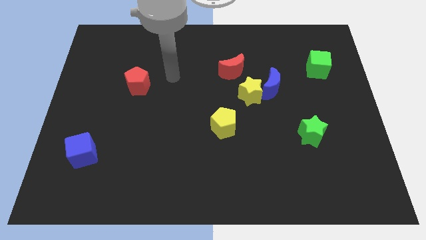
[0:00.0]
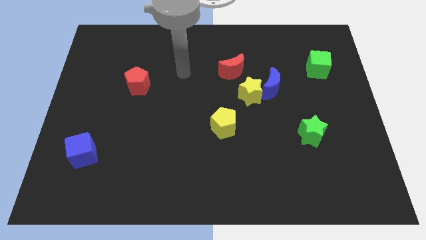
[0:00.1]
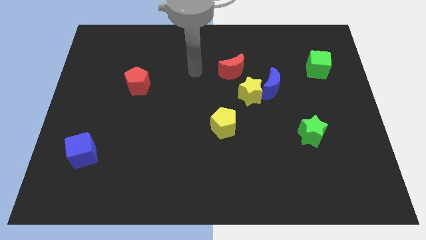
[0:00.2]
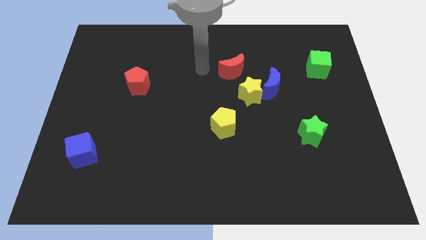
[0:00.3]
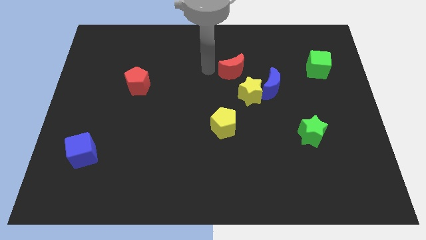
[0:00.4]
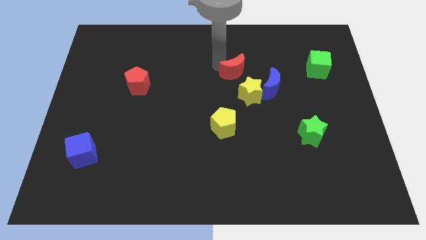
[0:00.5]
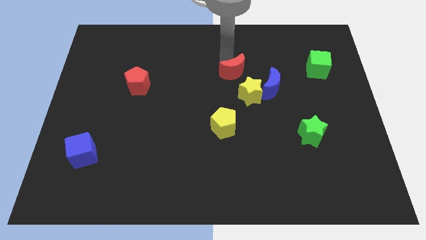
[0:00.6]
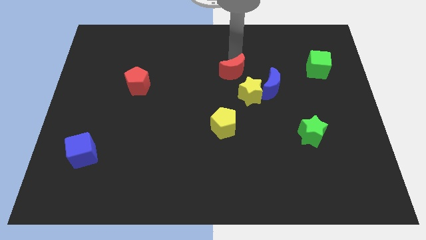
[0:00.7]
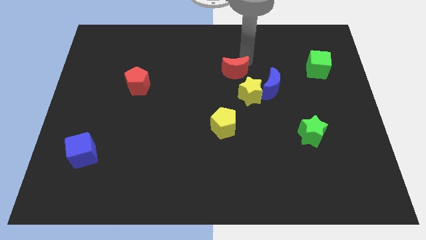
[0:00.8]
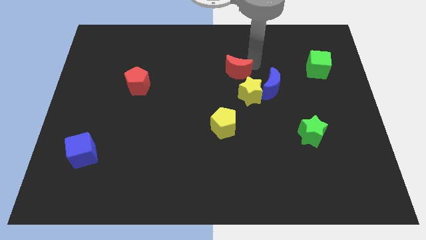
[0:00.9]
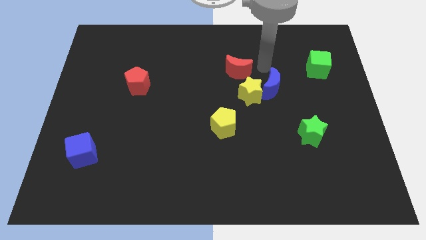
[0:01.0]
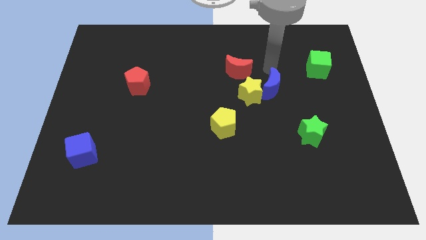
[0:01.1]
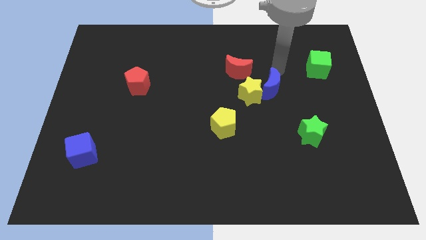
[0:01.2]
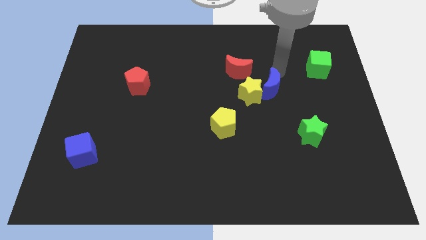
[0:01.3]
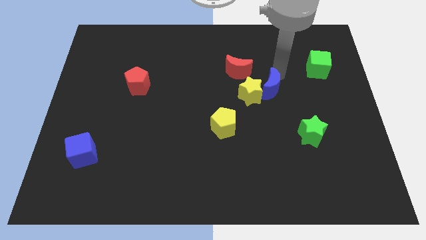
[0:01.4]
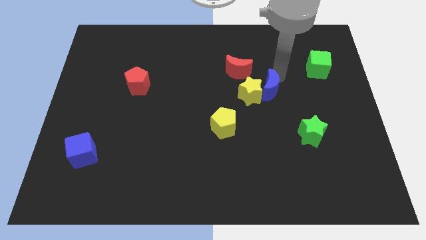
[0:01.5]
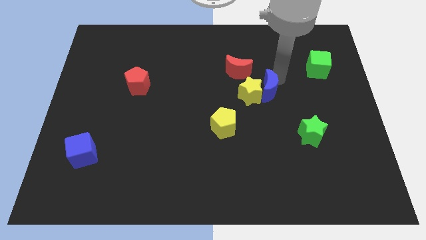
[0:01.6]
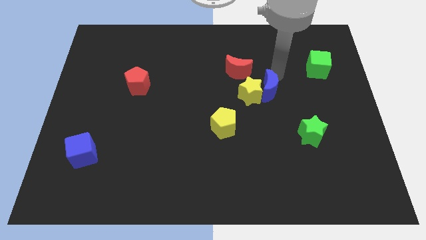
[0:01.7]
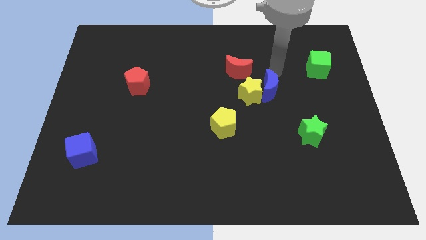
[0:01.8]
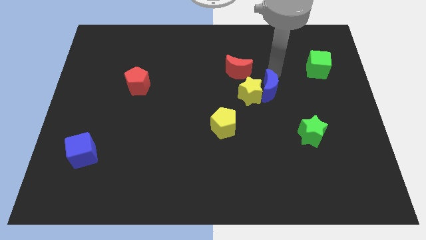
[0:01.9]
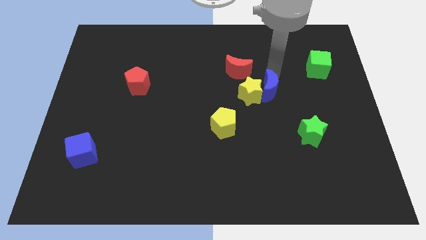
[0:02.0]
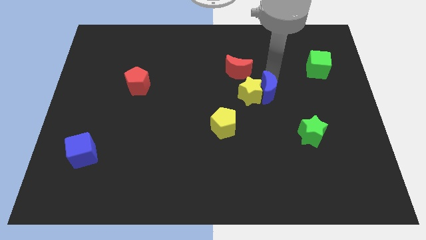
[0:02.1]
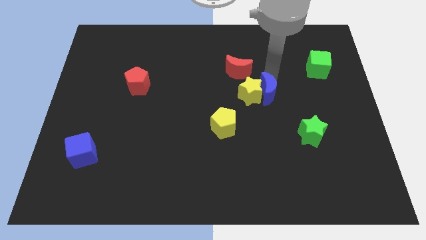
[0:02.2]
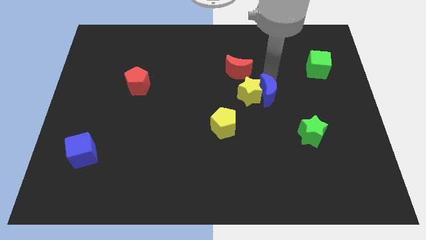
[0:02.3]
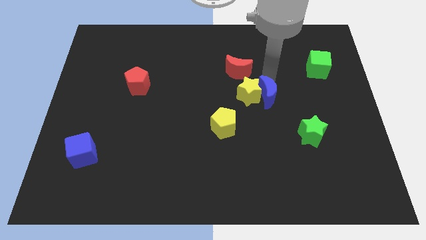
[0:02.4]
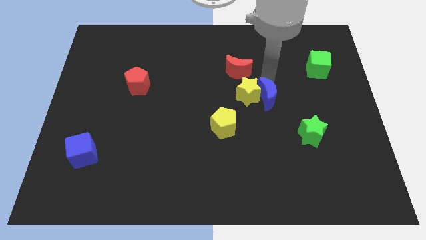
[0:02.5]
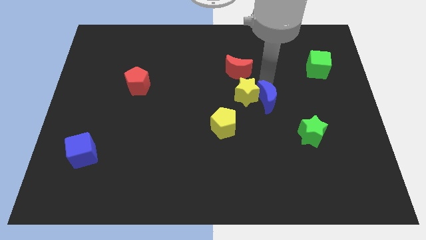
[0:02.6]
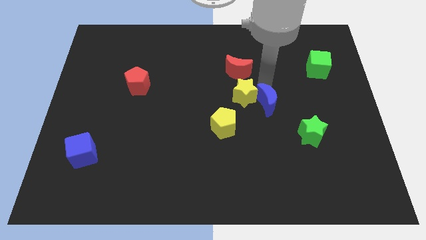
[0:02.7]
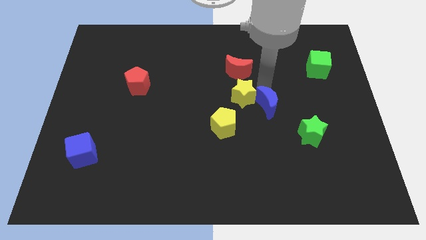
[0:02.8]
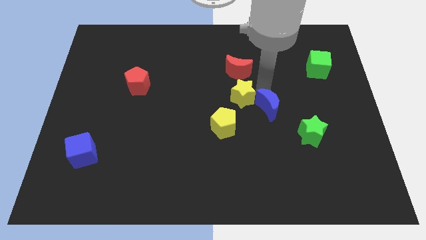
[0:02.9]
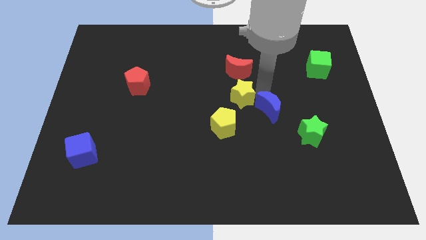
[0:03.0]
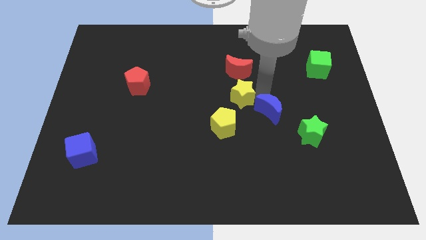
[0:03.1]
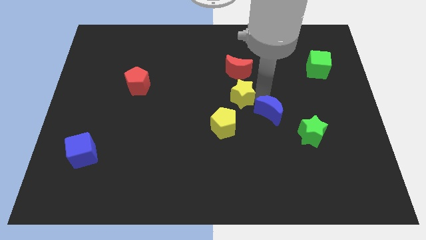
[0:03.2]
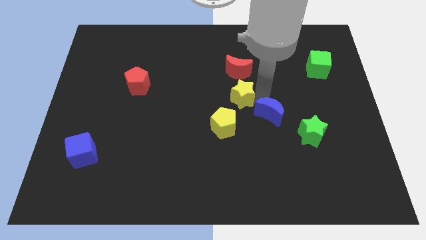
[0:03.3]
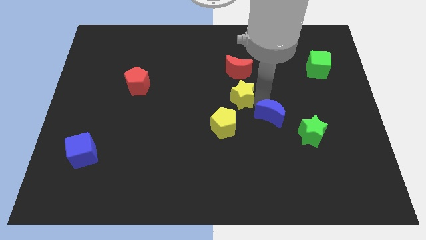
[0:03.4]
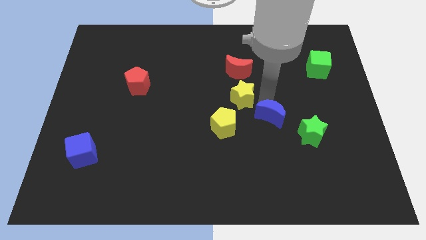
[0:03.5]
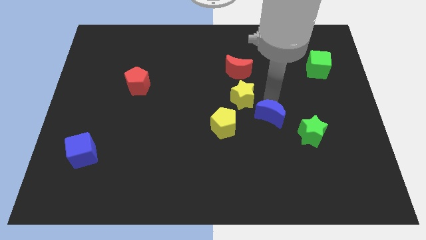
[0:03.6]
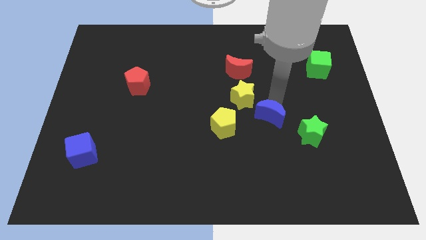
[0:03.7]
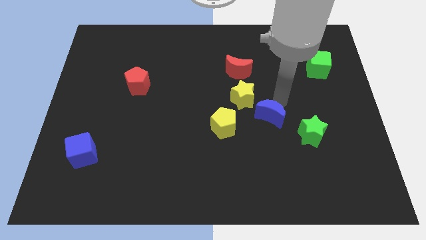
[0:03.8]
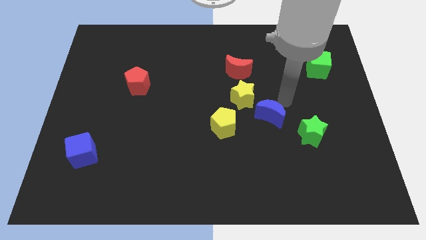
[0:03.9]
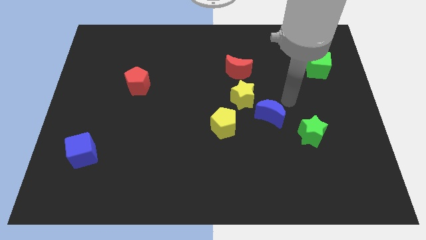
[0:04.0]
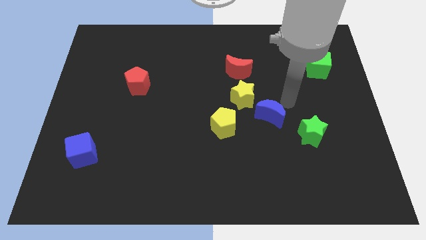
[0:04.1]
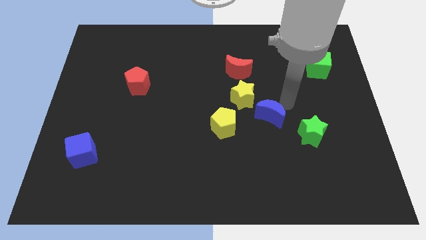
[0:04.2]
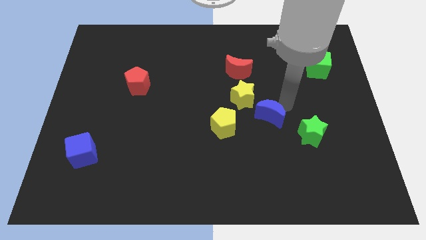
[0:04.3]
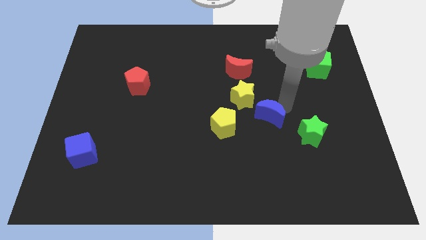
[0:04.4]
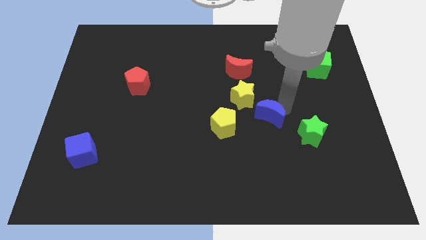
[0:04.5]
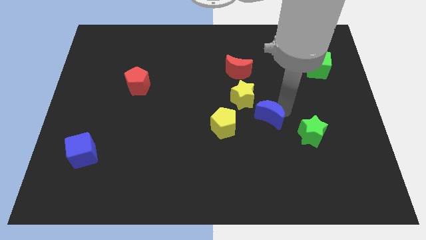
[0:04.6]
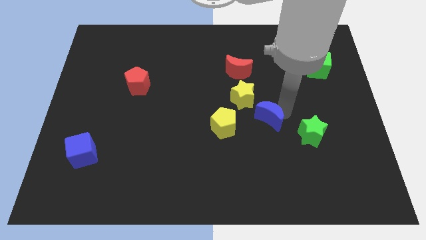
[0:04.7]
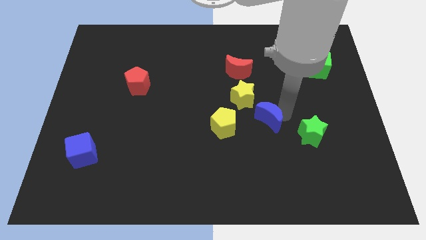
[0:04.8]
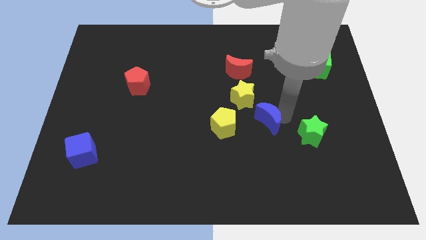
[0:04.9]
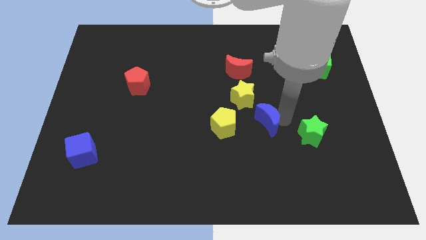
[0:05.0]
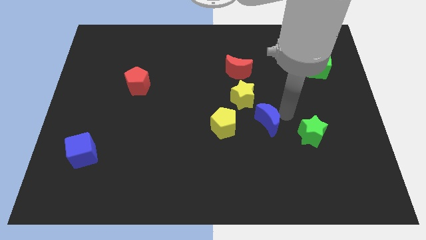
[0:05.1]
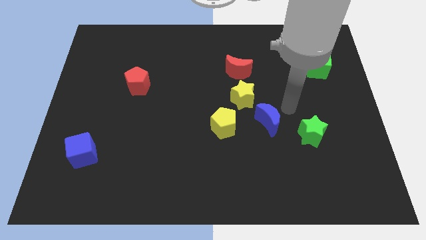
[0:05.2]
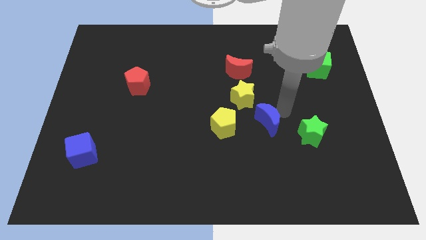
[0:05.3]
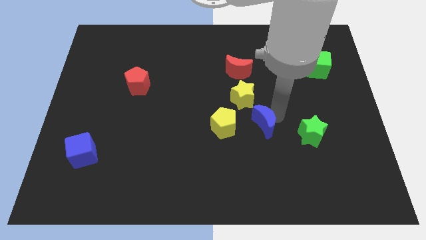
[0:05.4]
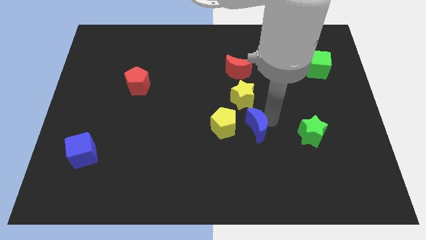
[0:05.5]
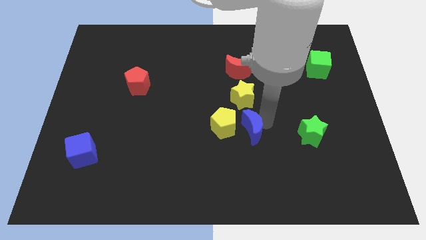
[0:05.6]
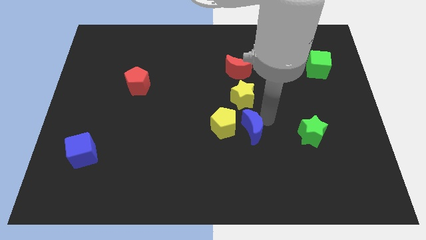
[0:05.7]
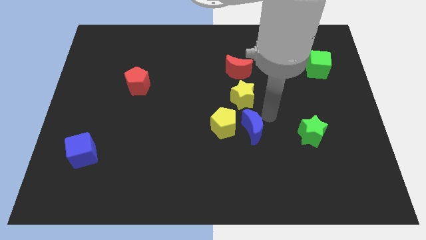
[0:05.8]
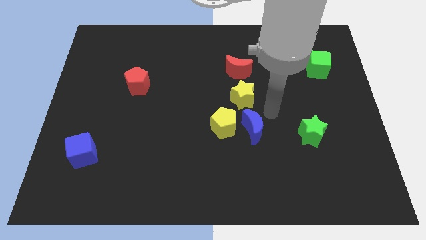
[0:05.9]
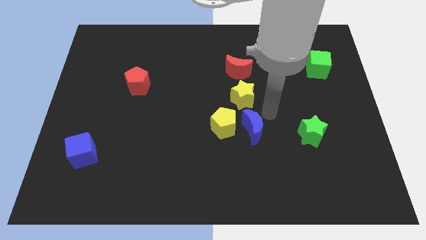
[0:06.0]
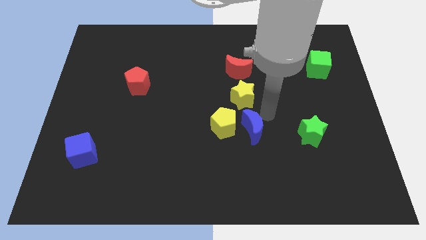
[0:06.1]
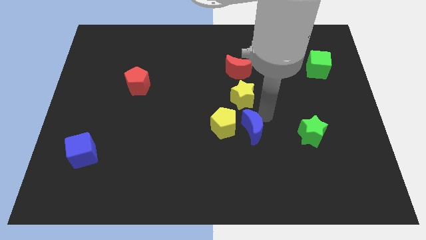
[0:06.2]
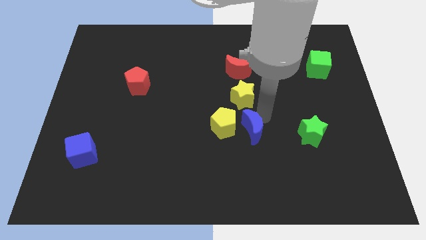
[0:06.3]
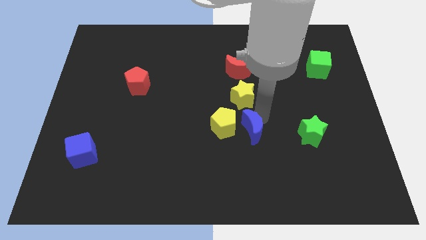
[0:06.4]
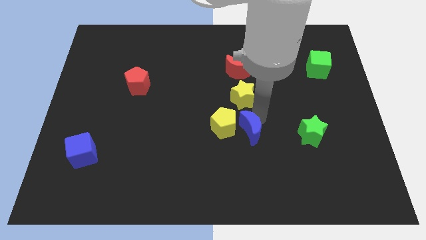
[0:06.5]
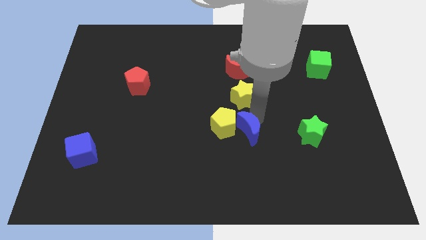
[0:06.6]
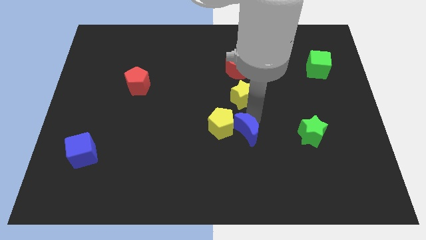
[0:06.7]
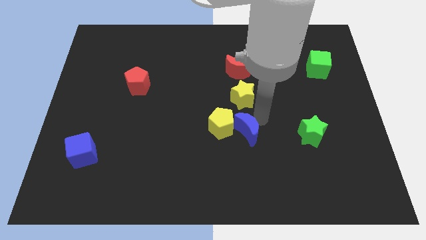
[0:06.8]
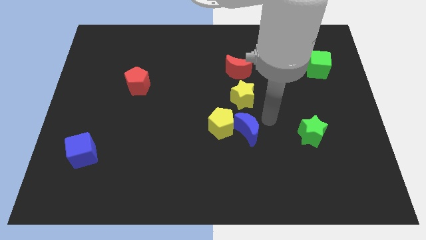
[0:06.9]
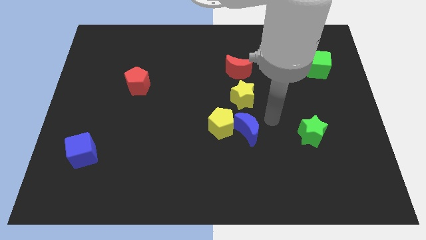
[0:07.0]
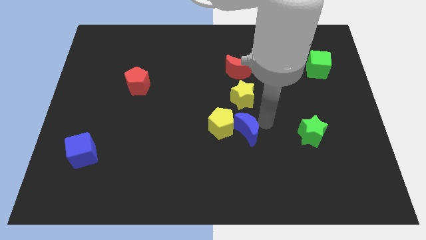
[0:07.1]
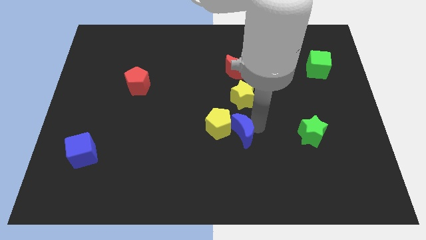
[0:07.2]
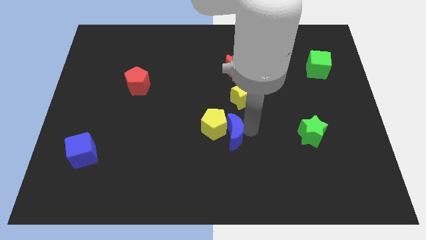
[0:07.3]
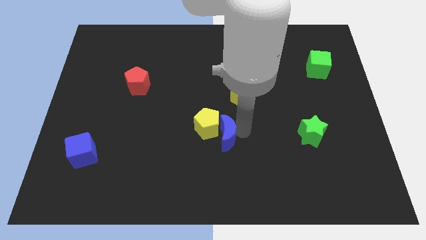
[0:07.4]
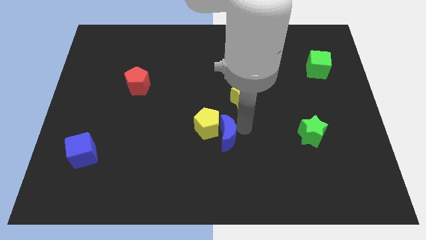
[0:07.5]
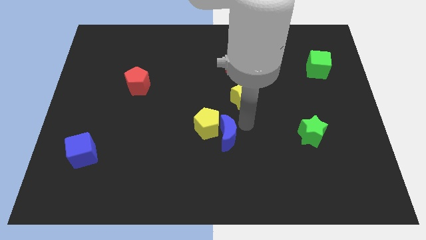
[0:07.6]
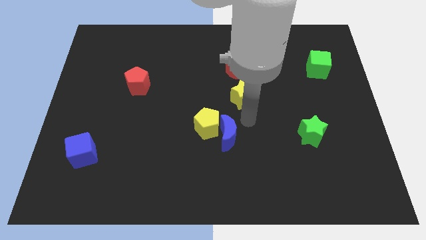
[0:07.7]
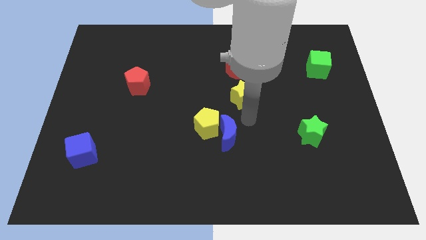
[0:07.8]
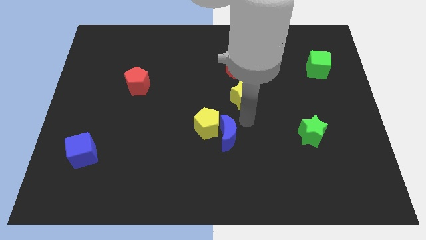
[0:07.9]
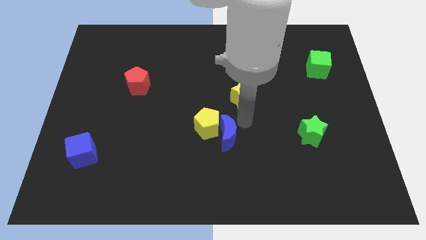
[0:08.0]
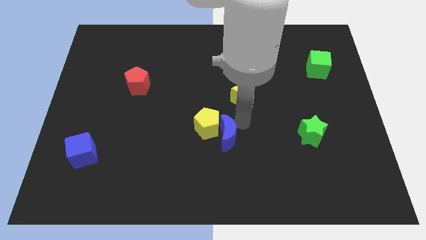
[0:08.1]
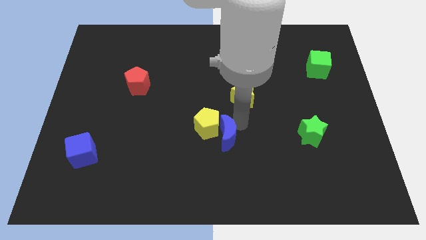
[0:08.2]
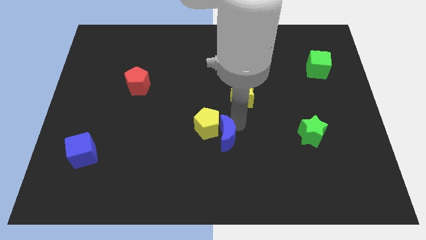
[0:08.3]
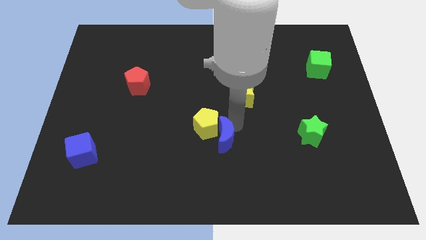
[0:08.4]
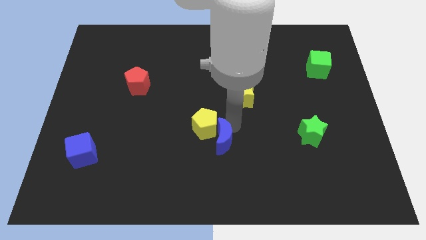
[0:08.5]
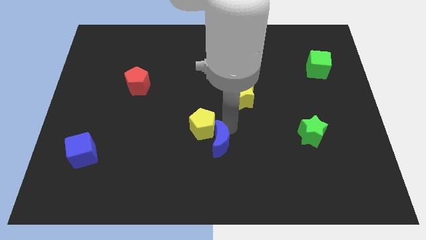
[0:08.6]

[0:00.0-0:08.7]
move the blue moon downwards and then to the left
